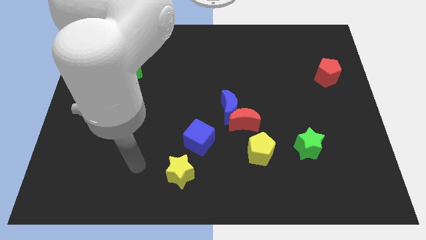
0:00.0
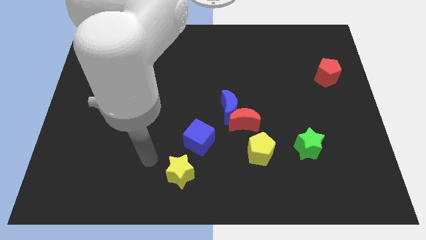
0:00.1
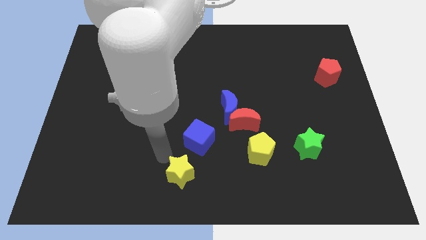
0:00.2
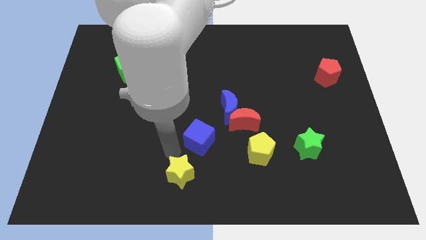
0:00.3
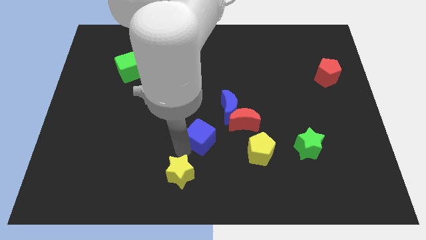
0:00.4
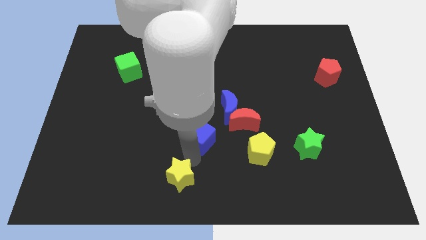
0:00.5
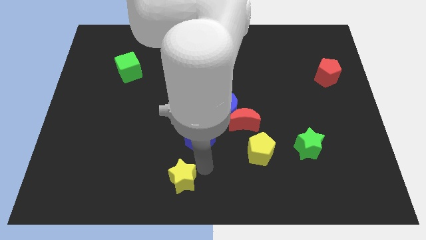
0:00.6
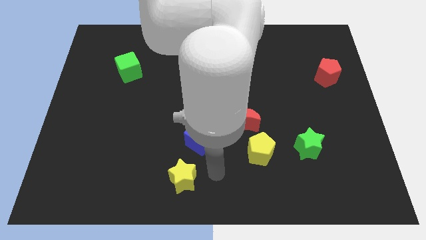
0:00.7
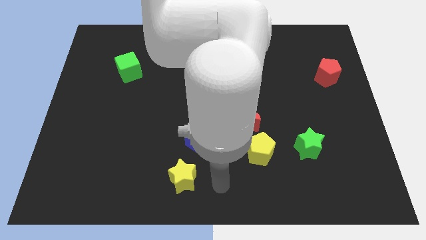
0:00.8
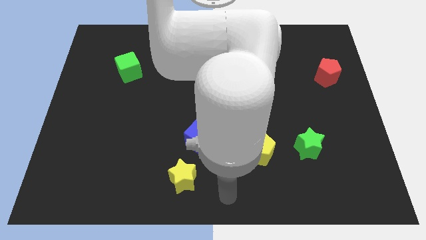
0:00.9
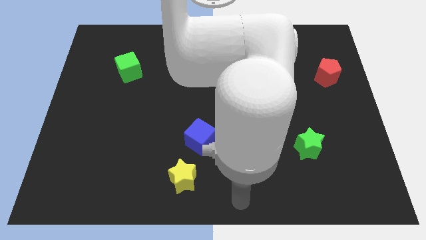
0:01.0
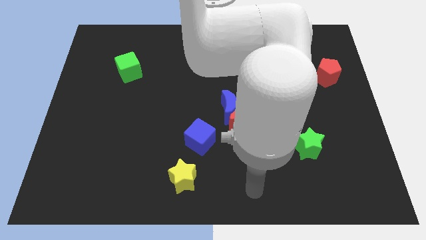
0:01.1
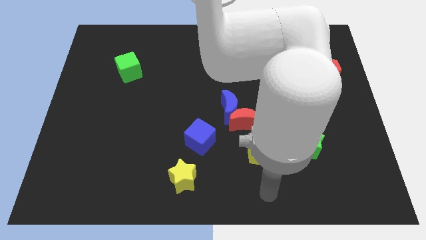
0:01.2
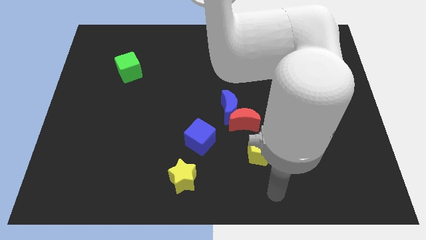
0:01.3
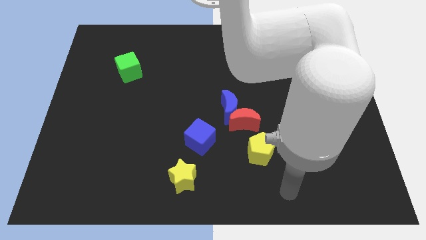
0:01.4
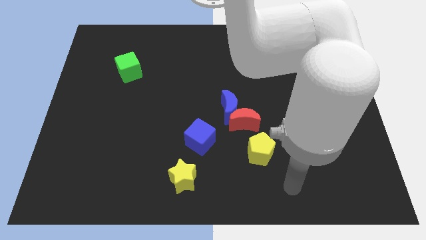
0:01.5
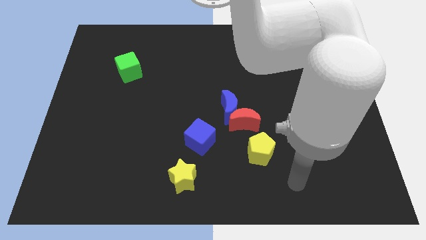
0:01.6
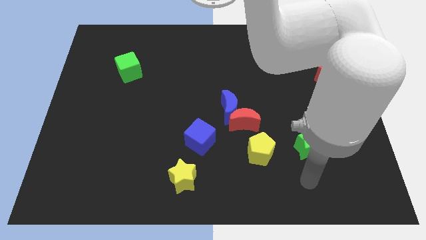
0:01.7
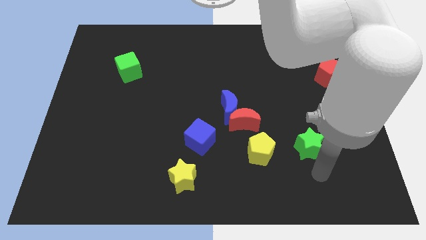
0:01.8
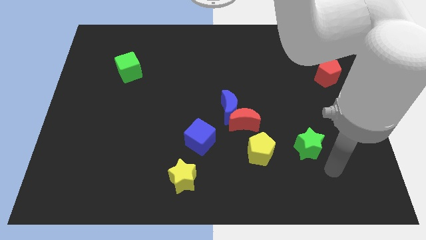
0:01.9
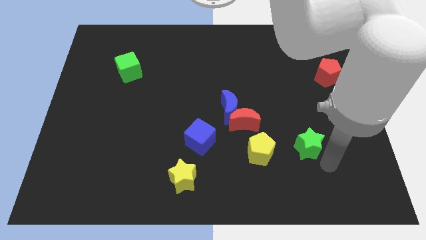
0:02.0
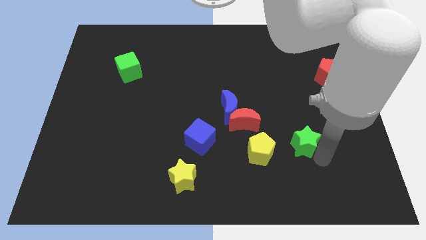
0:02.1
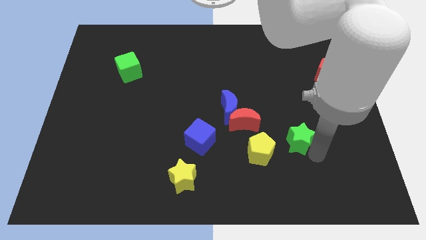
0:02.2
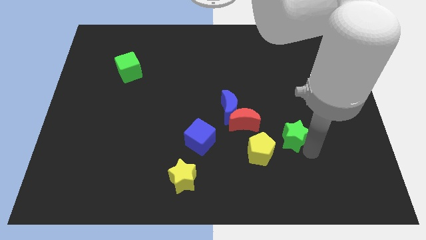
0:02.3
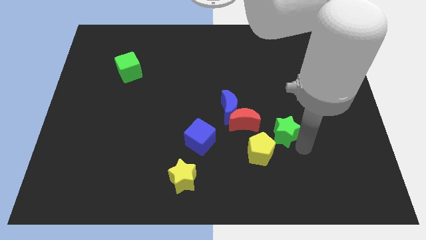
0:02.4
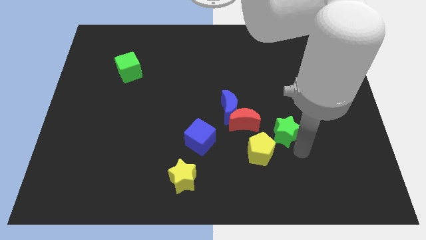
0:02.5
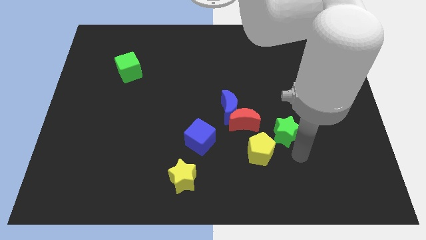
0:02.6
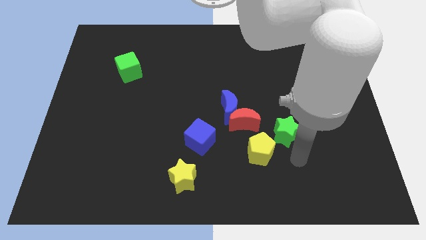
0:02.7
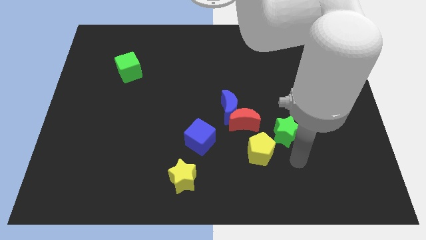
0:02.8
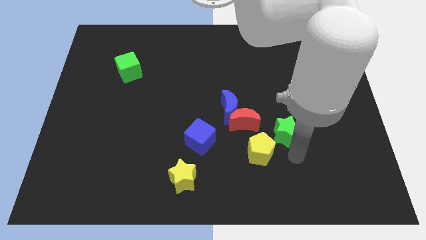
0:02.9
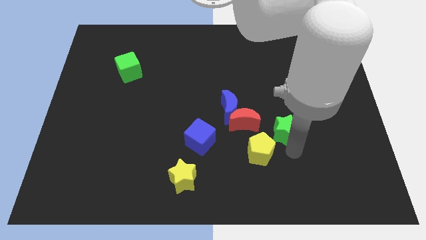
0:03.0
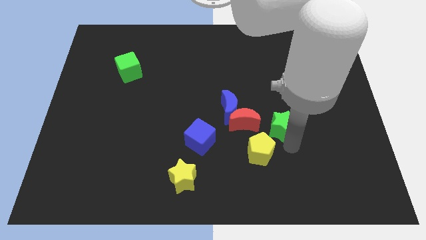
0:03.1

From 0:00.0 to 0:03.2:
slightly push the green star up and left diagonally

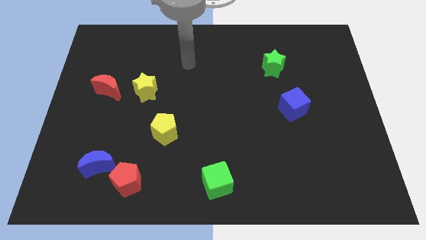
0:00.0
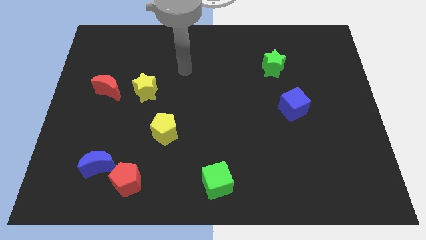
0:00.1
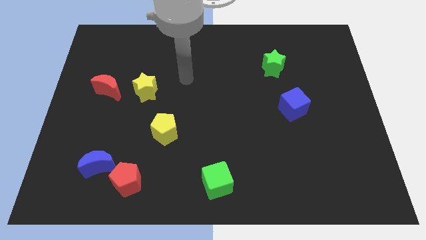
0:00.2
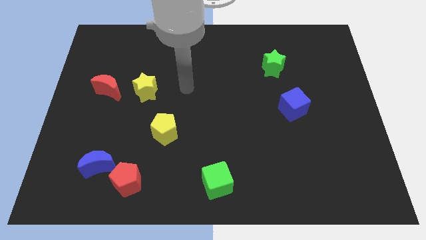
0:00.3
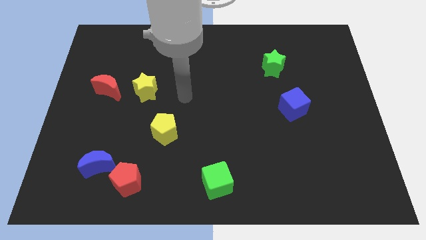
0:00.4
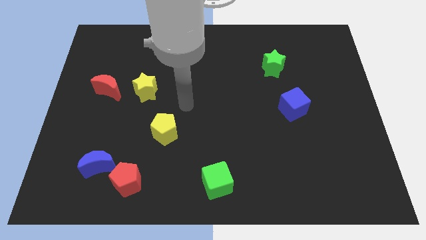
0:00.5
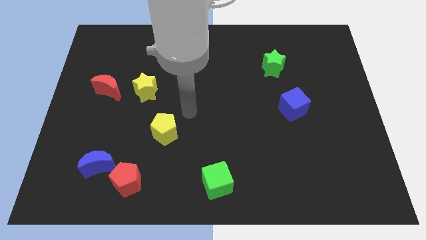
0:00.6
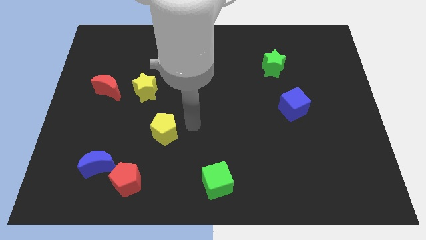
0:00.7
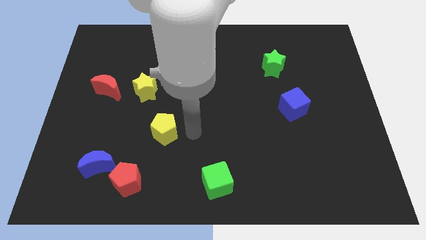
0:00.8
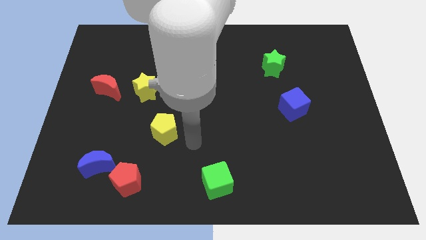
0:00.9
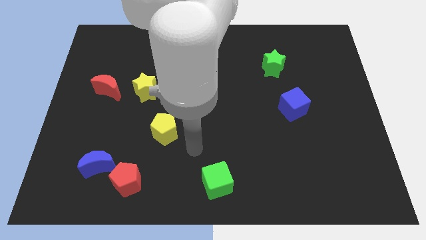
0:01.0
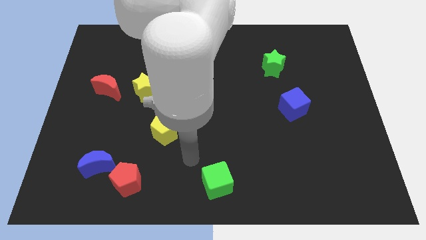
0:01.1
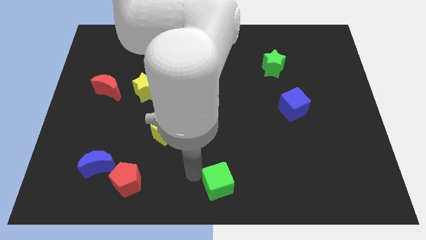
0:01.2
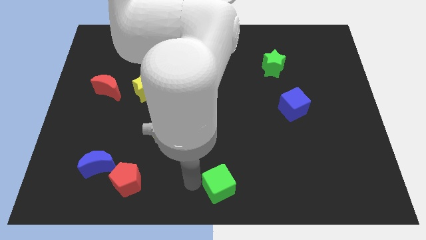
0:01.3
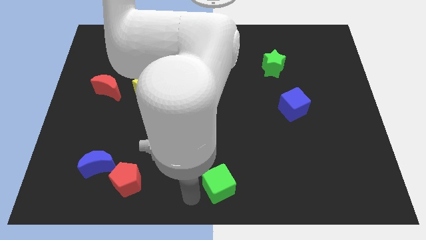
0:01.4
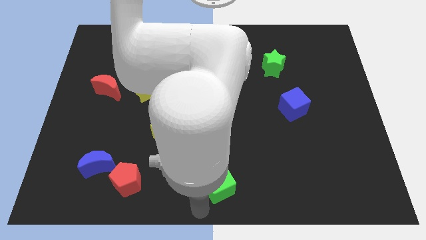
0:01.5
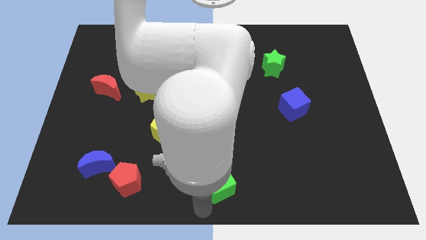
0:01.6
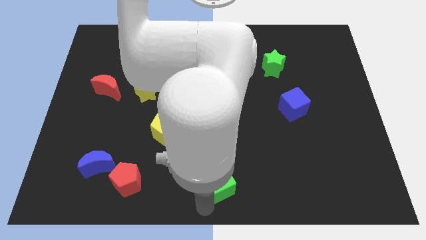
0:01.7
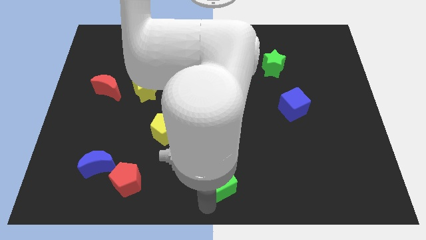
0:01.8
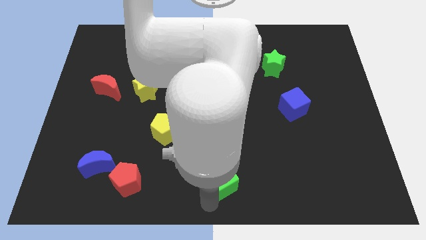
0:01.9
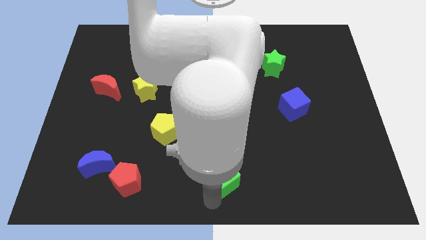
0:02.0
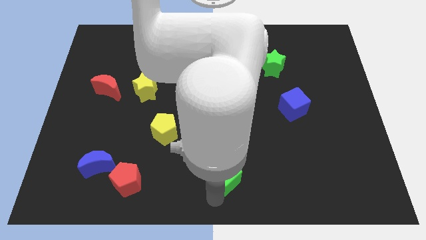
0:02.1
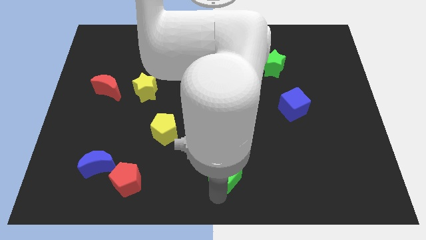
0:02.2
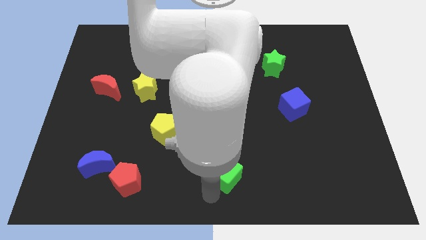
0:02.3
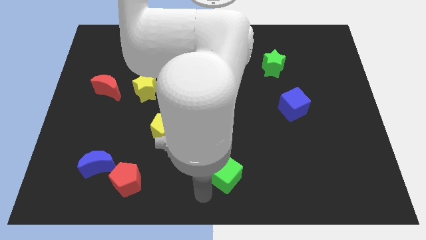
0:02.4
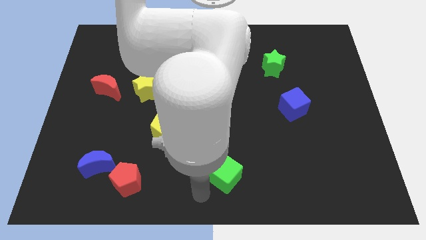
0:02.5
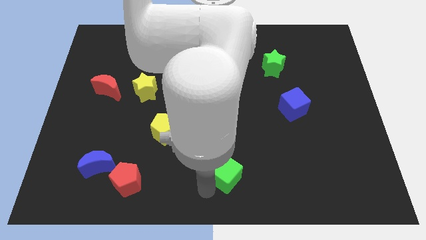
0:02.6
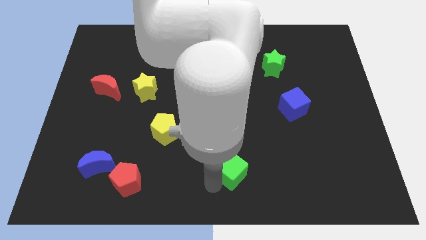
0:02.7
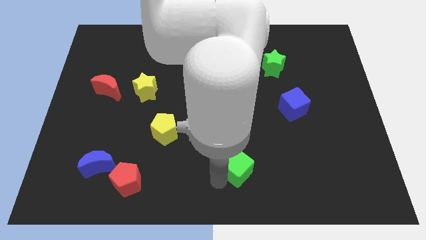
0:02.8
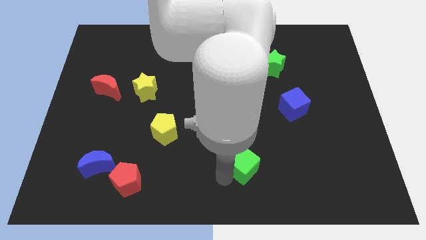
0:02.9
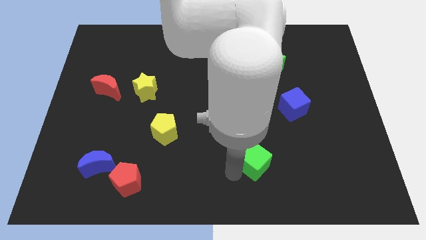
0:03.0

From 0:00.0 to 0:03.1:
push the green cube a bit upwards and right

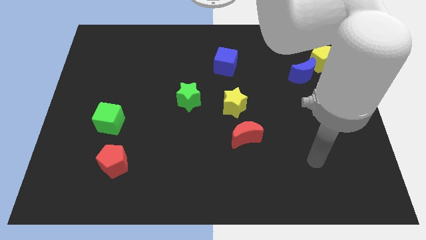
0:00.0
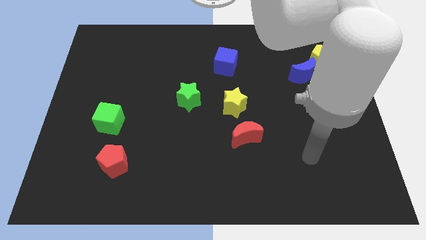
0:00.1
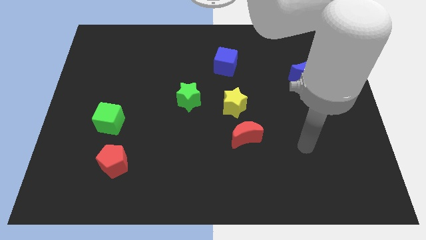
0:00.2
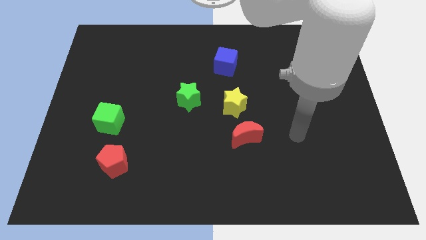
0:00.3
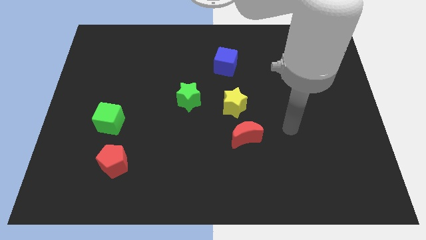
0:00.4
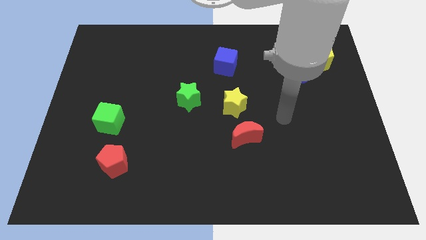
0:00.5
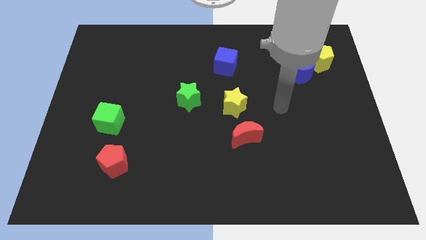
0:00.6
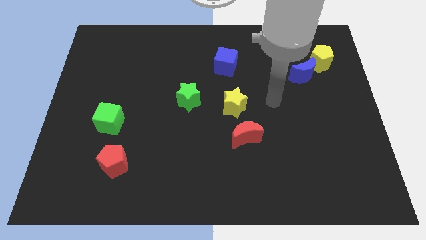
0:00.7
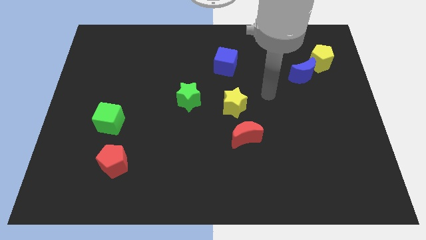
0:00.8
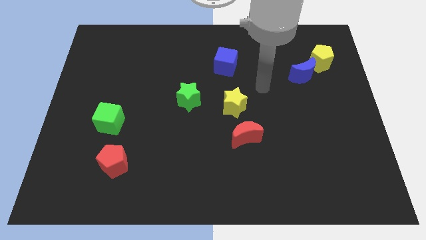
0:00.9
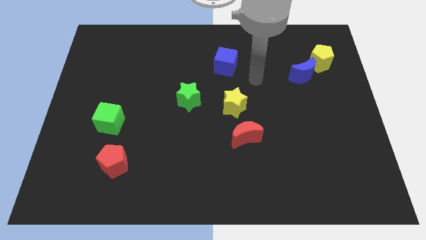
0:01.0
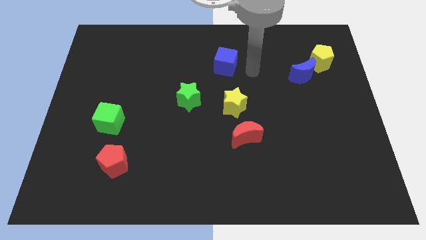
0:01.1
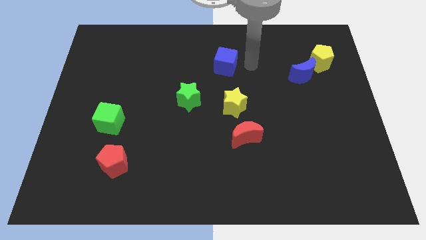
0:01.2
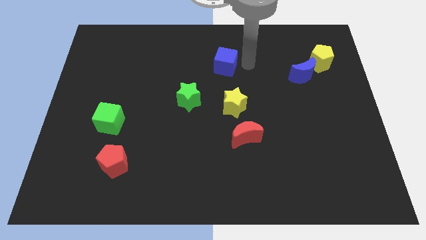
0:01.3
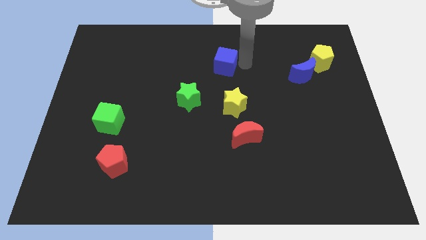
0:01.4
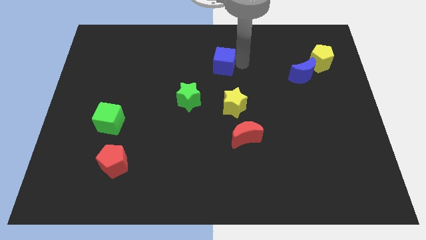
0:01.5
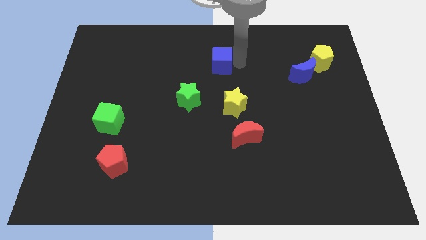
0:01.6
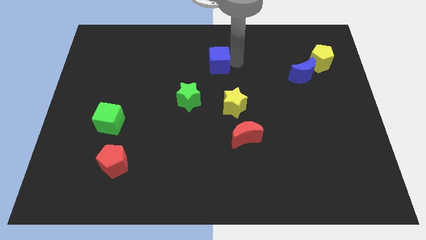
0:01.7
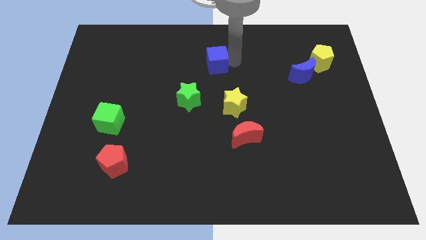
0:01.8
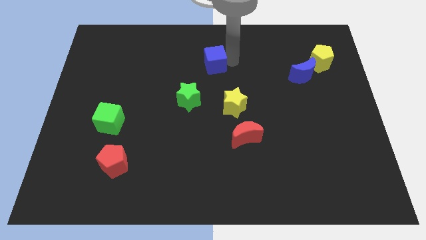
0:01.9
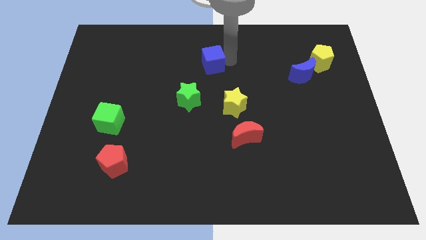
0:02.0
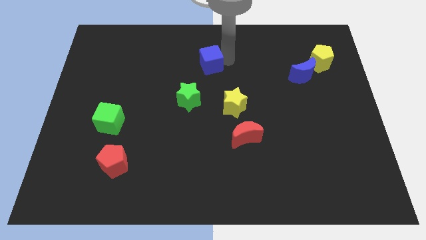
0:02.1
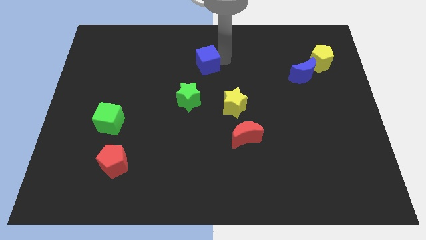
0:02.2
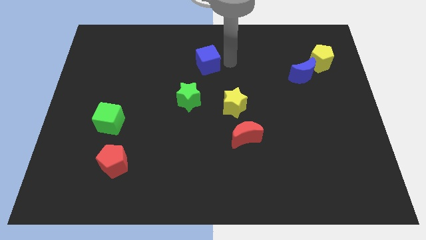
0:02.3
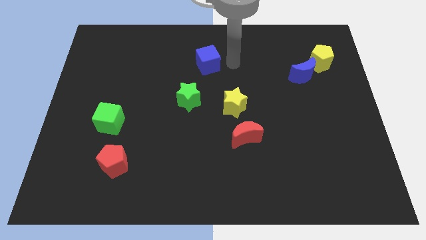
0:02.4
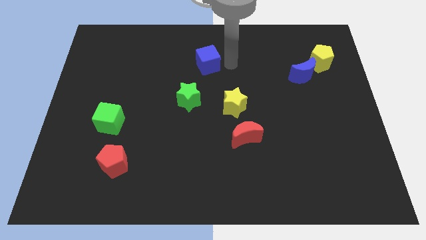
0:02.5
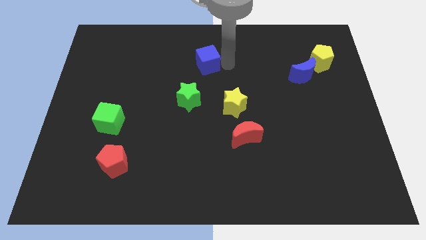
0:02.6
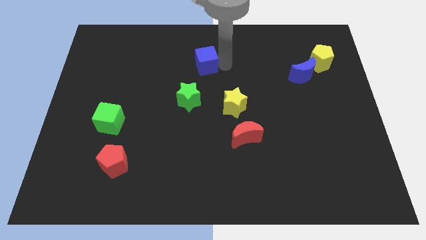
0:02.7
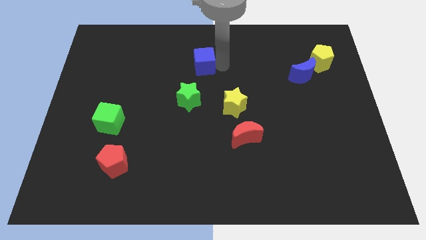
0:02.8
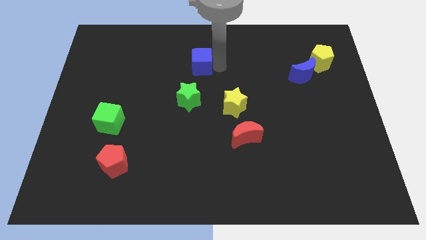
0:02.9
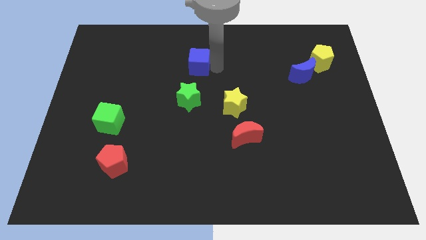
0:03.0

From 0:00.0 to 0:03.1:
slightly push the blue cube to the left
